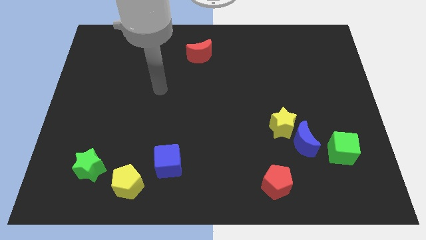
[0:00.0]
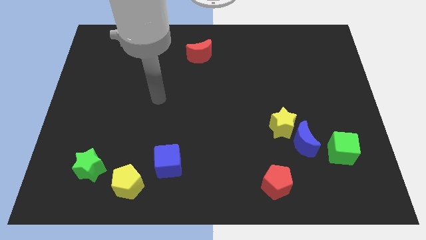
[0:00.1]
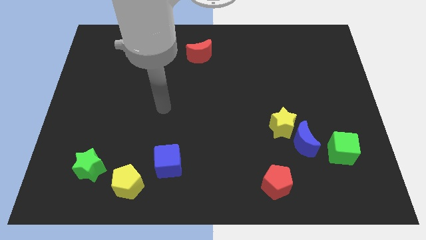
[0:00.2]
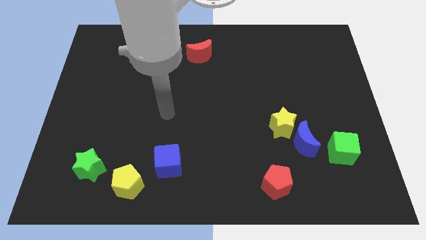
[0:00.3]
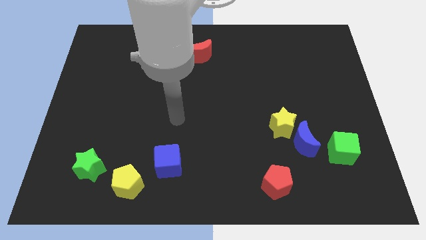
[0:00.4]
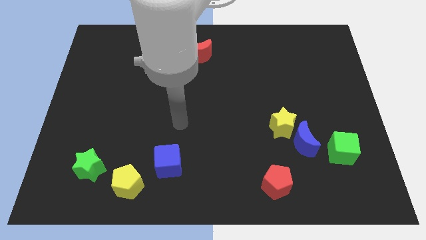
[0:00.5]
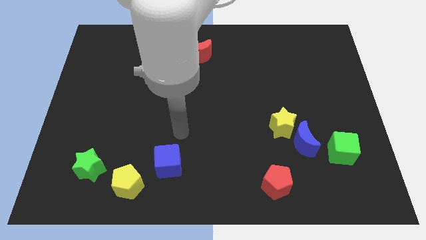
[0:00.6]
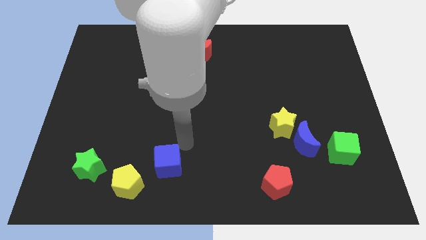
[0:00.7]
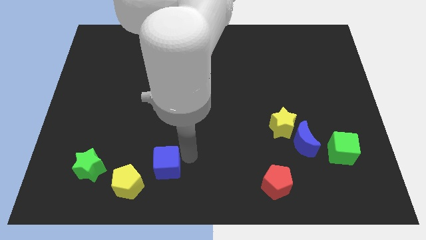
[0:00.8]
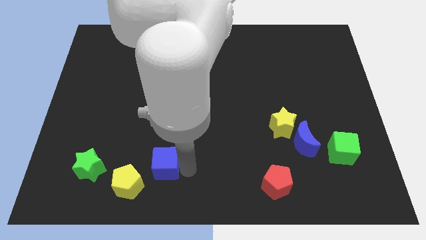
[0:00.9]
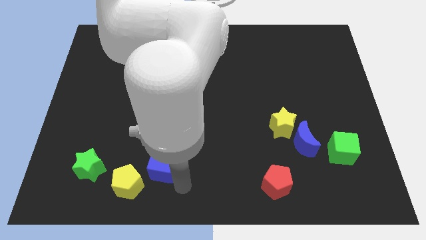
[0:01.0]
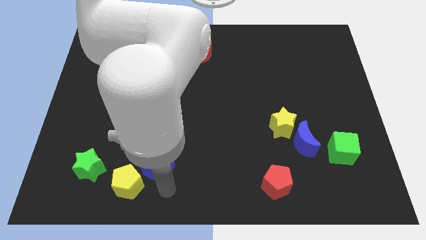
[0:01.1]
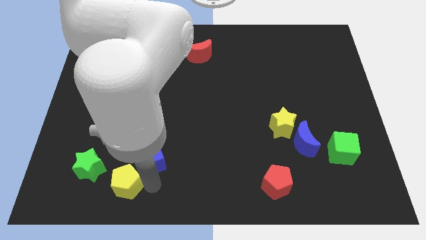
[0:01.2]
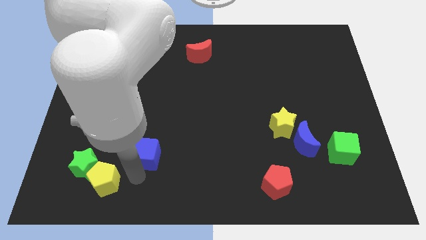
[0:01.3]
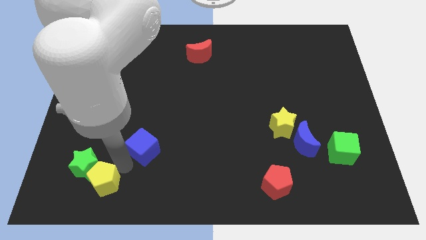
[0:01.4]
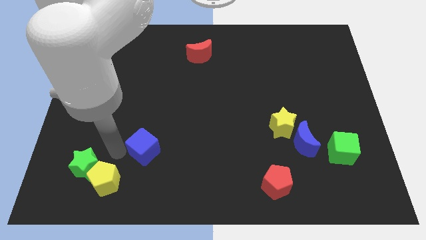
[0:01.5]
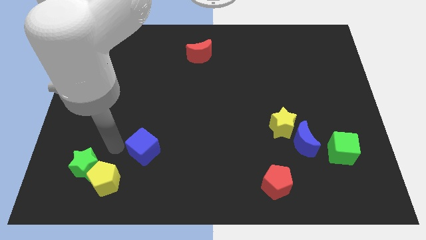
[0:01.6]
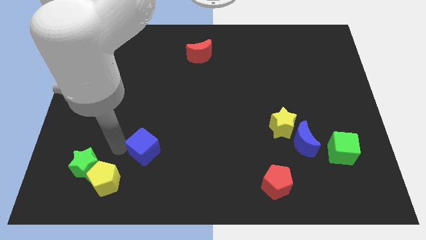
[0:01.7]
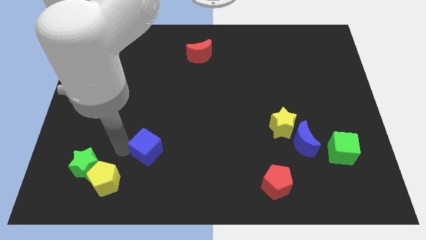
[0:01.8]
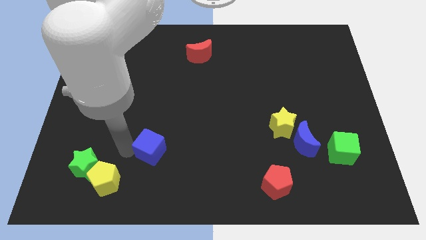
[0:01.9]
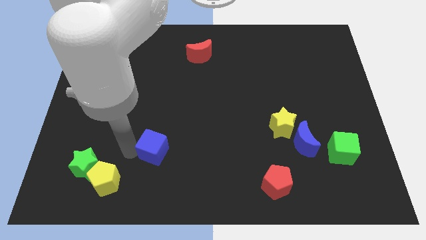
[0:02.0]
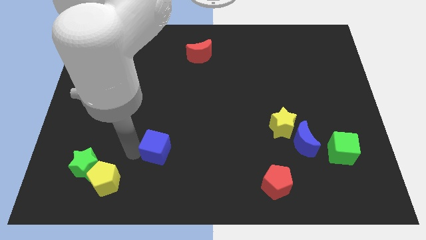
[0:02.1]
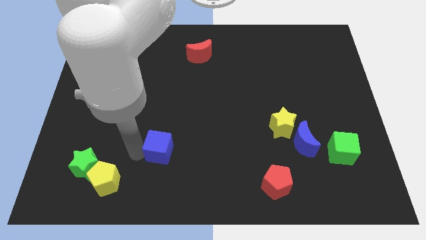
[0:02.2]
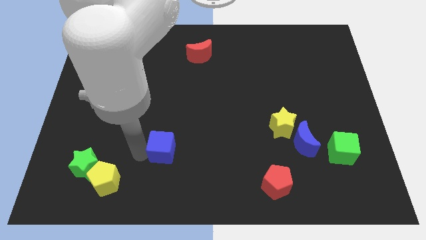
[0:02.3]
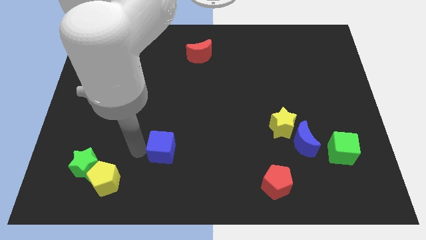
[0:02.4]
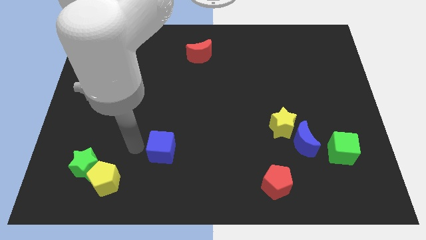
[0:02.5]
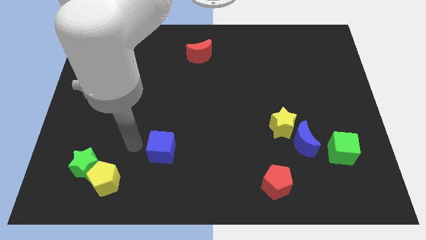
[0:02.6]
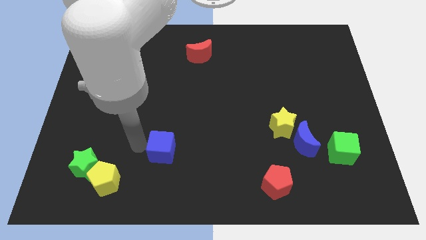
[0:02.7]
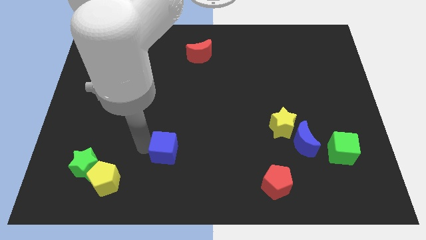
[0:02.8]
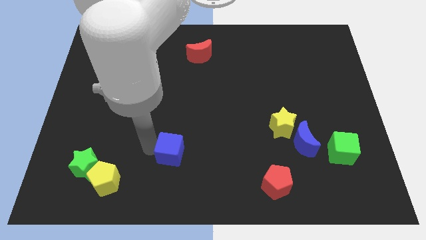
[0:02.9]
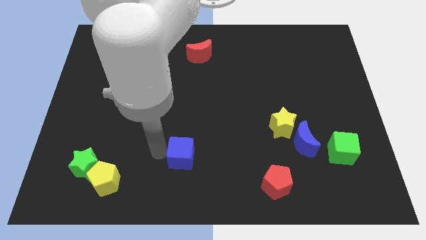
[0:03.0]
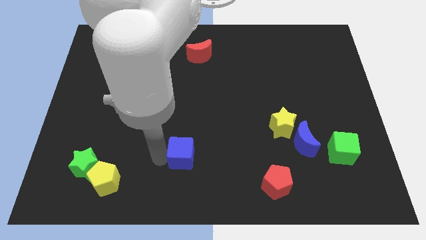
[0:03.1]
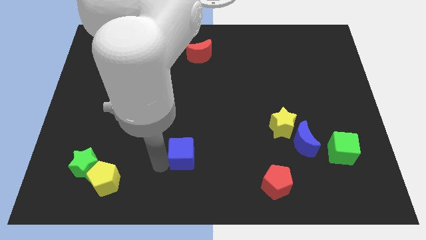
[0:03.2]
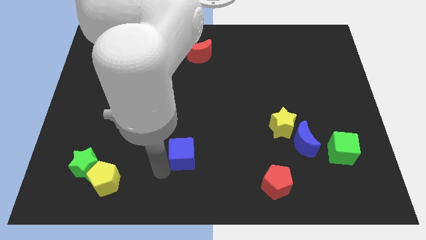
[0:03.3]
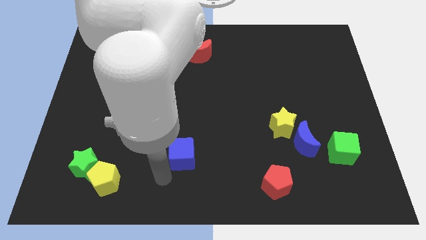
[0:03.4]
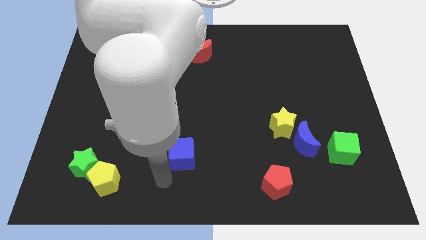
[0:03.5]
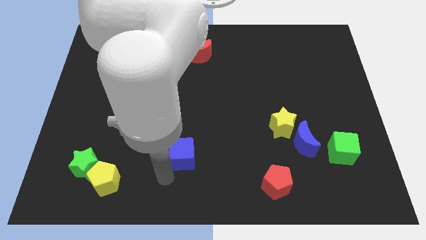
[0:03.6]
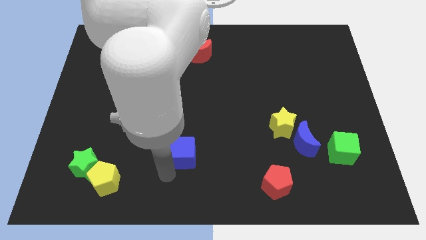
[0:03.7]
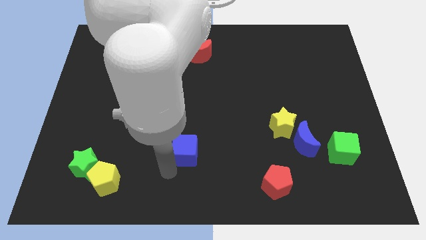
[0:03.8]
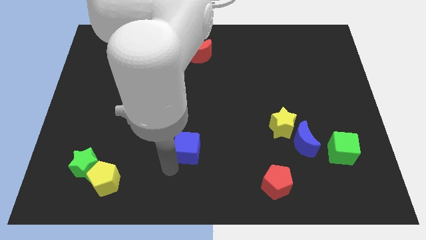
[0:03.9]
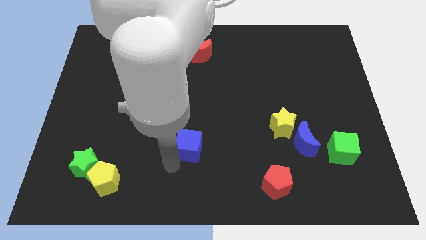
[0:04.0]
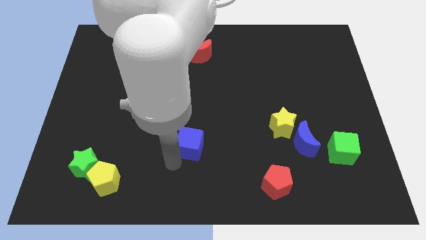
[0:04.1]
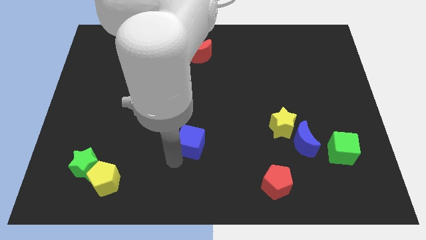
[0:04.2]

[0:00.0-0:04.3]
slightly slide the blue cube up and right diagonally

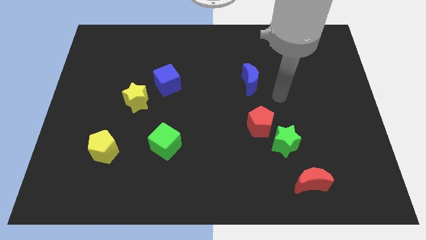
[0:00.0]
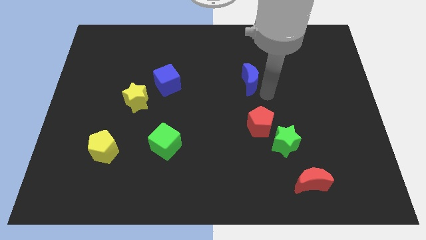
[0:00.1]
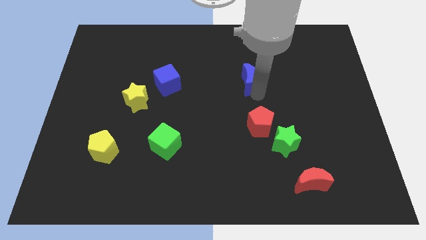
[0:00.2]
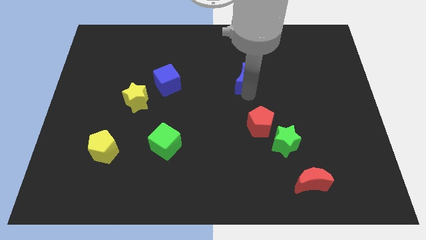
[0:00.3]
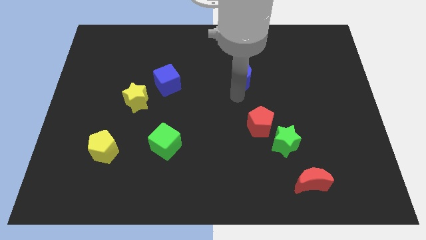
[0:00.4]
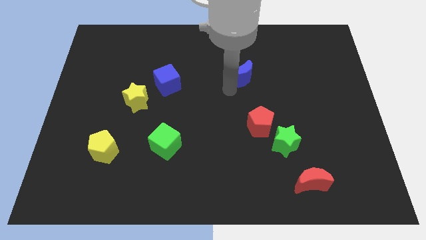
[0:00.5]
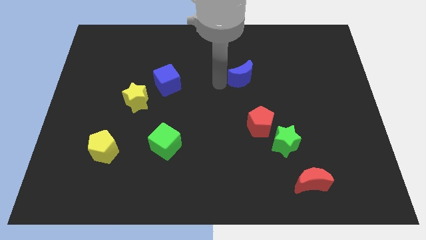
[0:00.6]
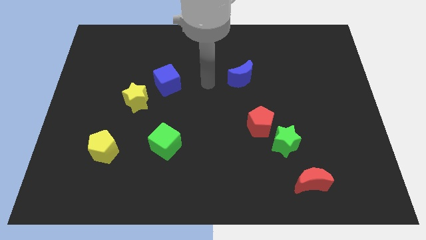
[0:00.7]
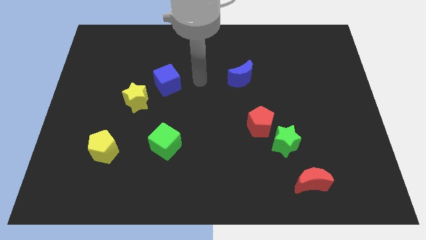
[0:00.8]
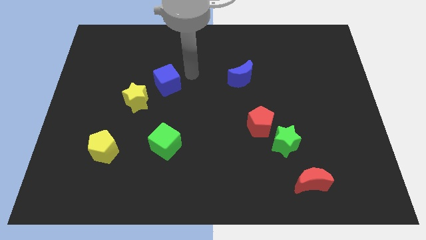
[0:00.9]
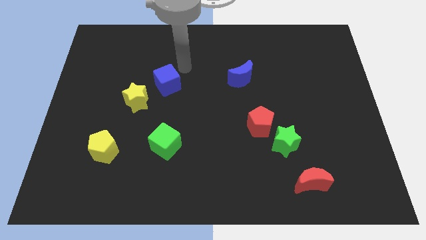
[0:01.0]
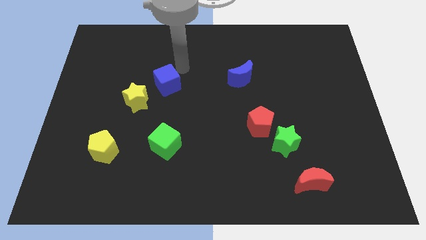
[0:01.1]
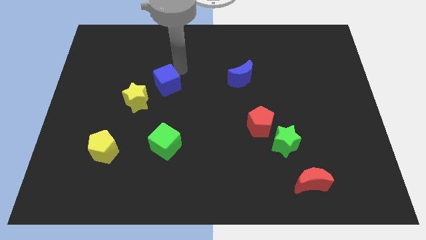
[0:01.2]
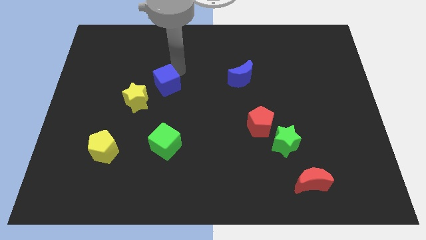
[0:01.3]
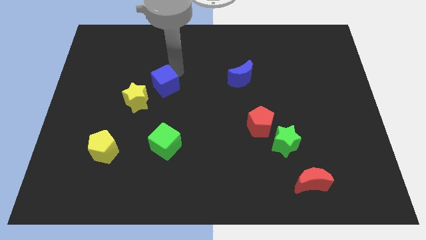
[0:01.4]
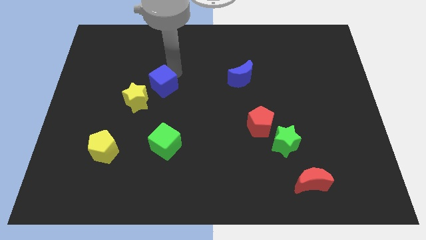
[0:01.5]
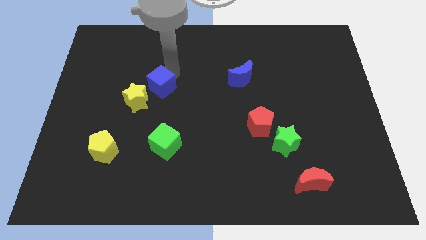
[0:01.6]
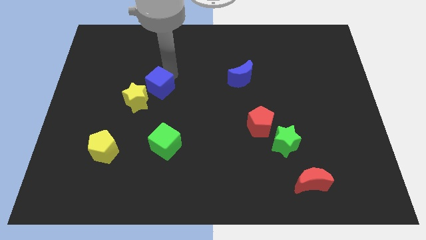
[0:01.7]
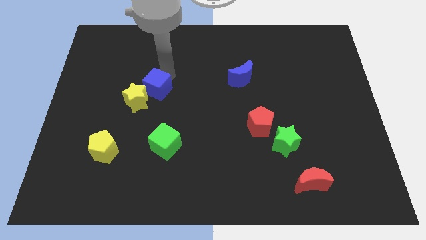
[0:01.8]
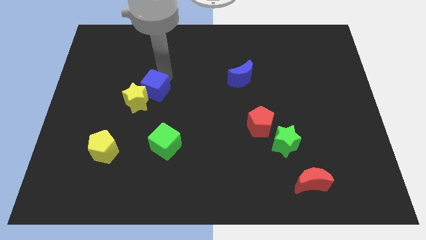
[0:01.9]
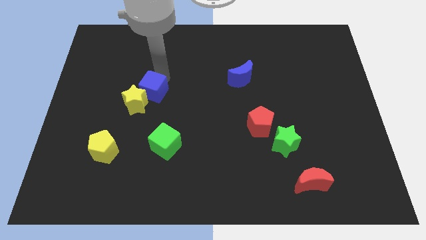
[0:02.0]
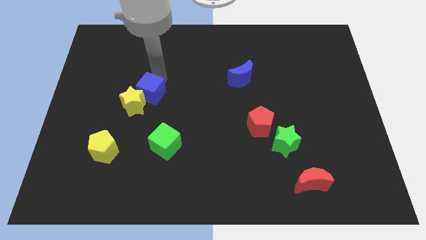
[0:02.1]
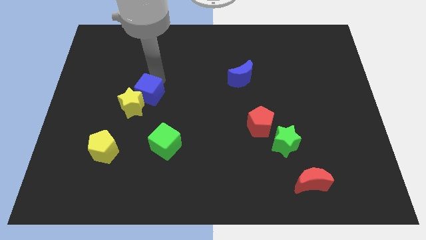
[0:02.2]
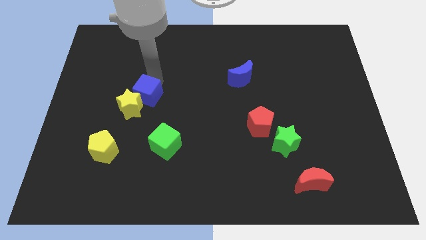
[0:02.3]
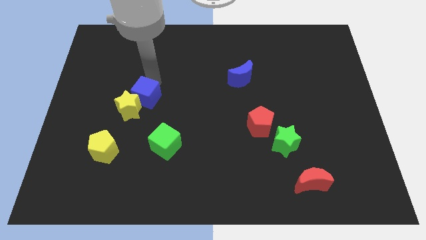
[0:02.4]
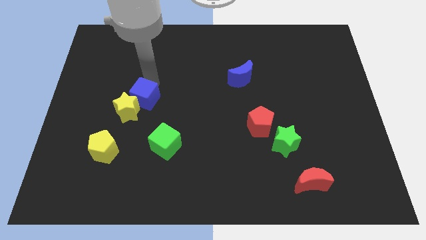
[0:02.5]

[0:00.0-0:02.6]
push the blue cube a little down and left diagonally

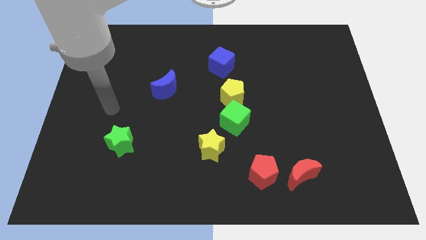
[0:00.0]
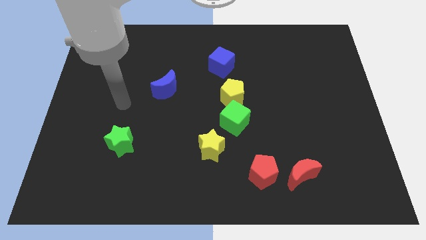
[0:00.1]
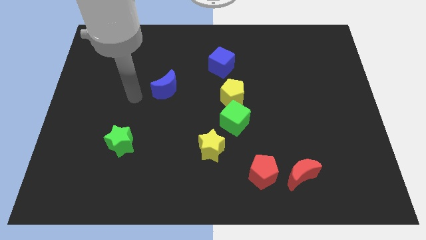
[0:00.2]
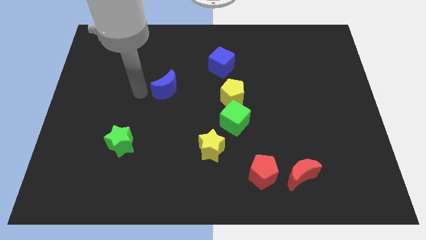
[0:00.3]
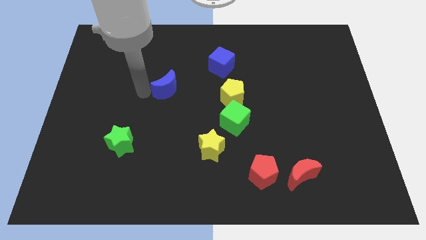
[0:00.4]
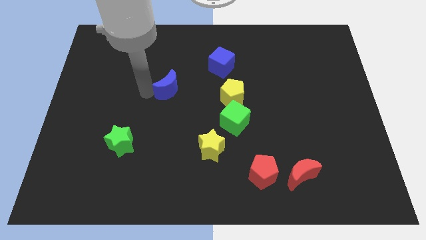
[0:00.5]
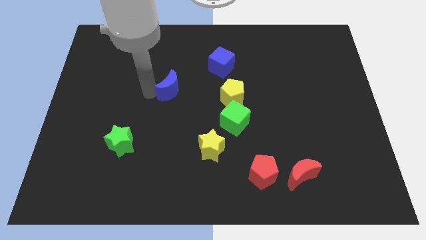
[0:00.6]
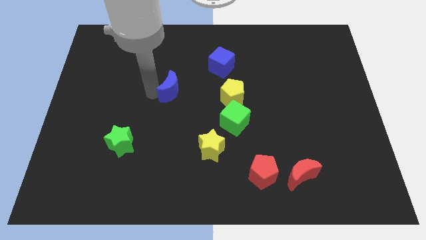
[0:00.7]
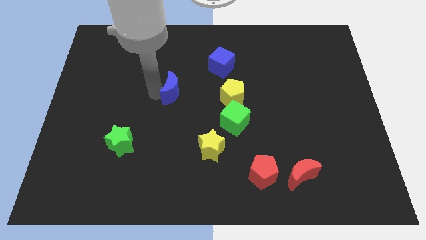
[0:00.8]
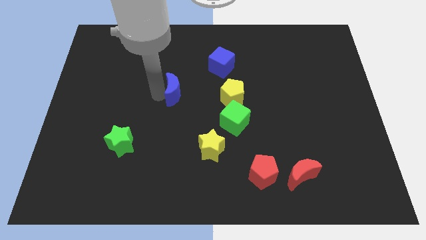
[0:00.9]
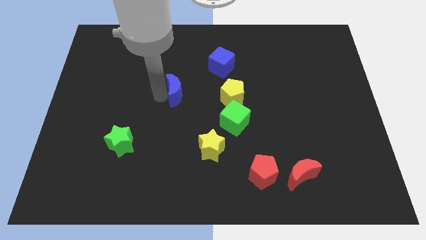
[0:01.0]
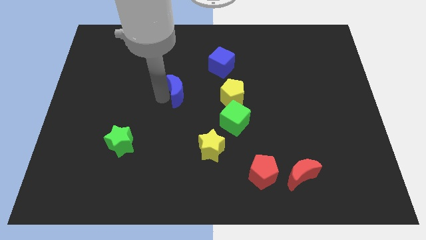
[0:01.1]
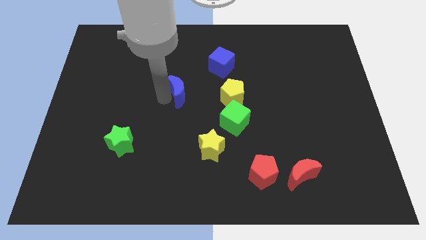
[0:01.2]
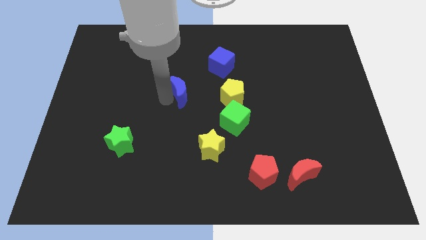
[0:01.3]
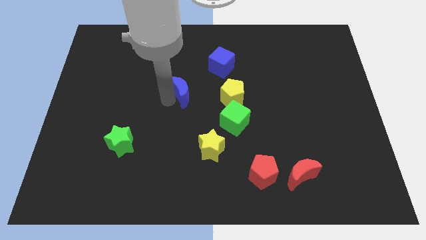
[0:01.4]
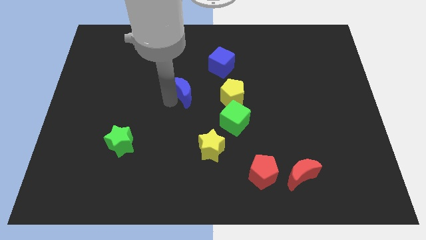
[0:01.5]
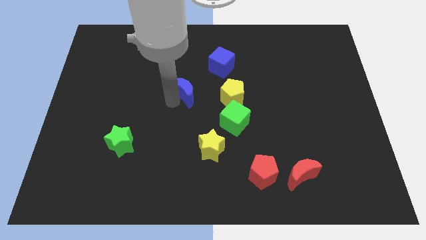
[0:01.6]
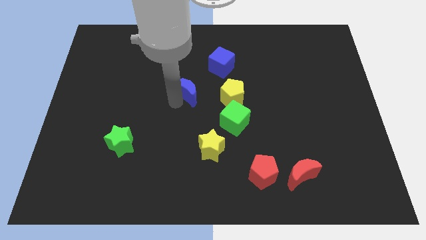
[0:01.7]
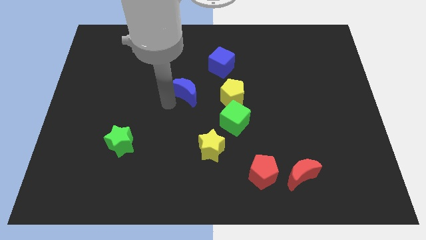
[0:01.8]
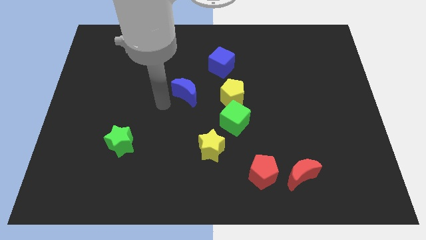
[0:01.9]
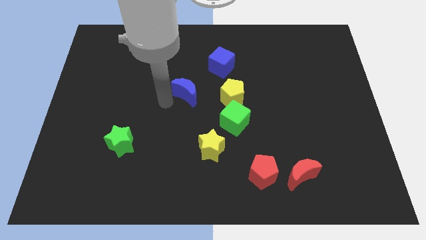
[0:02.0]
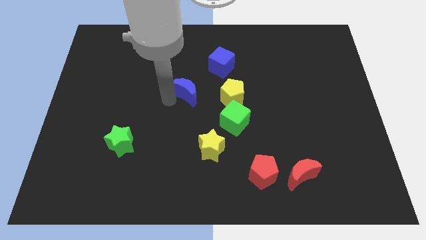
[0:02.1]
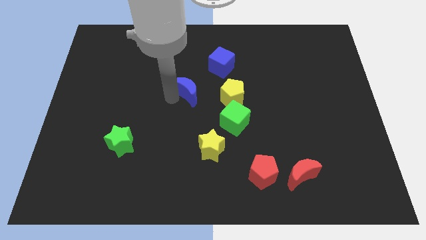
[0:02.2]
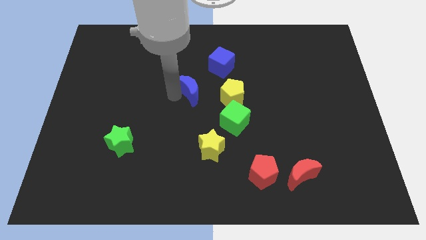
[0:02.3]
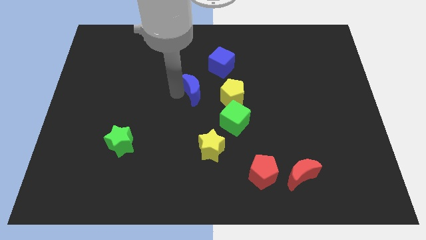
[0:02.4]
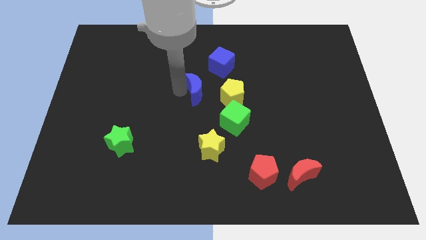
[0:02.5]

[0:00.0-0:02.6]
push the blue moon somewhat right
